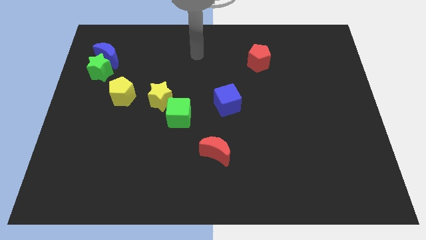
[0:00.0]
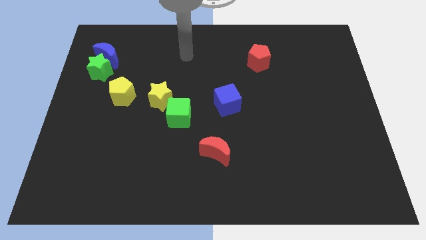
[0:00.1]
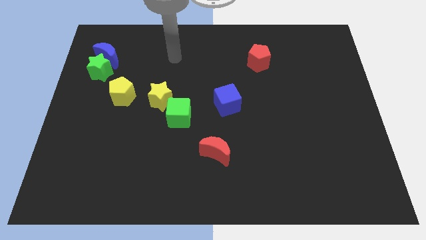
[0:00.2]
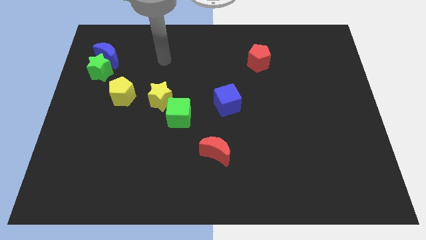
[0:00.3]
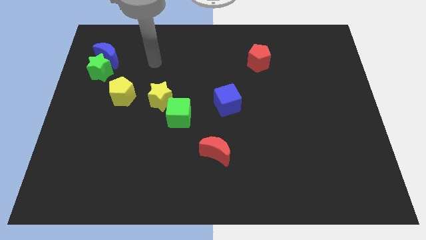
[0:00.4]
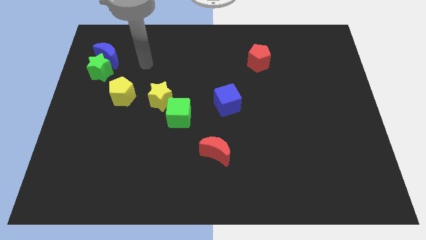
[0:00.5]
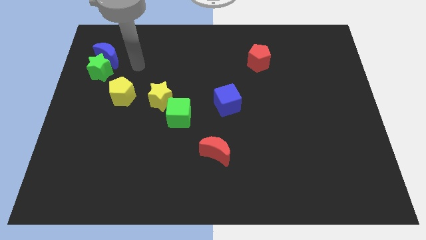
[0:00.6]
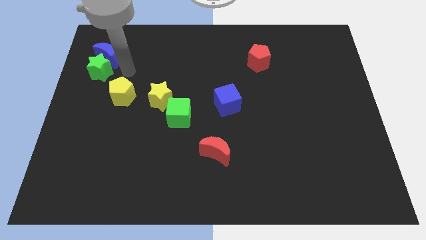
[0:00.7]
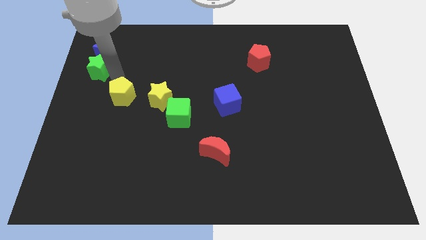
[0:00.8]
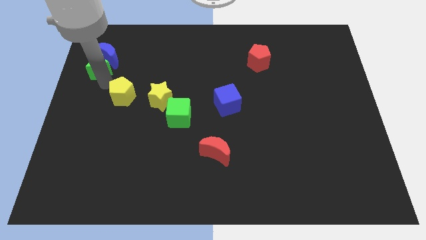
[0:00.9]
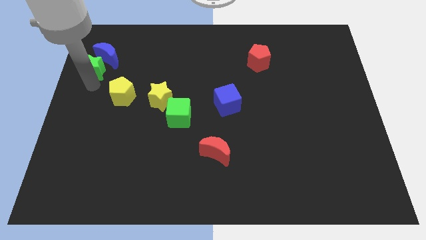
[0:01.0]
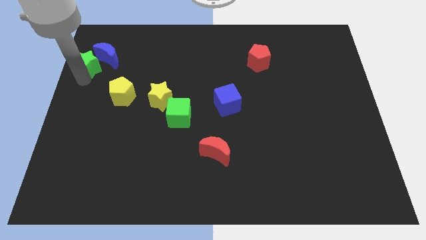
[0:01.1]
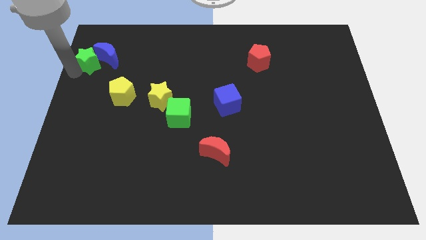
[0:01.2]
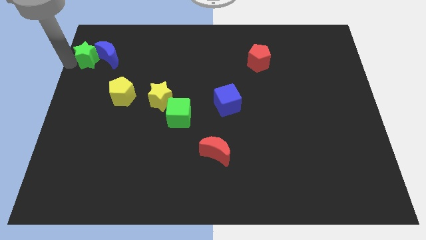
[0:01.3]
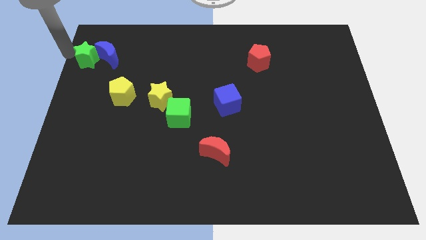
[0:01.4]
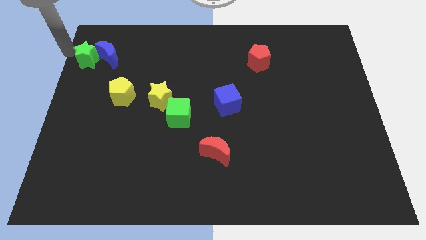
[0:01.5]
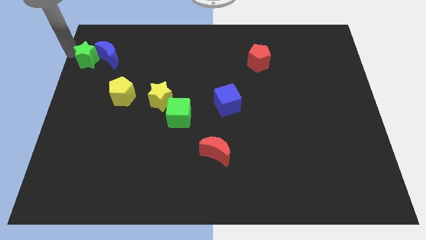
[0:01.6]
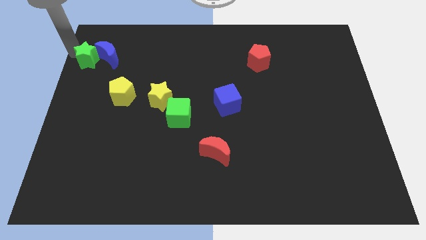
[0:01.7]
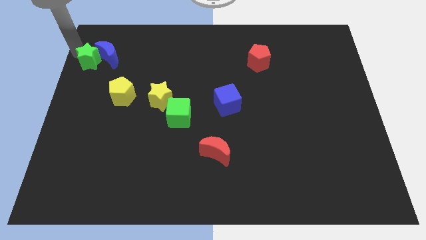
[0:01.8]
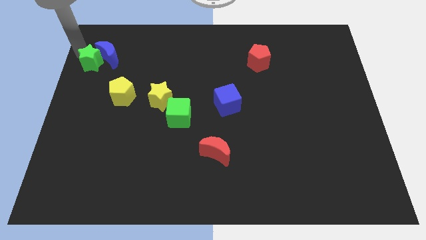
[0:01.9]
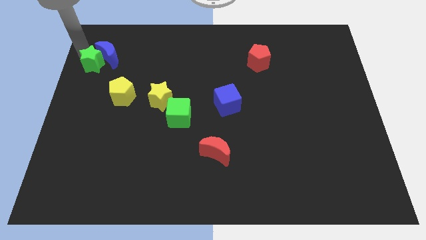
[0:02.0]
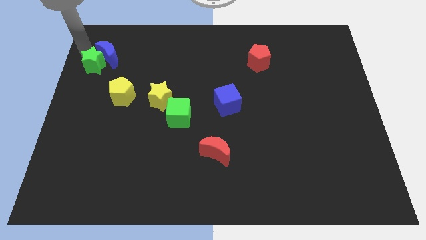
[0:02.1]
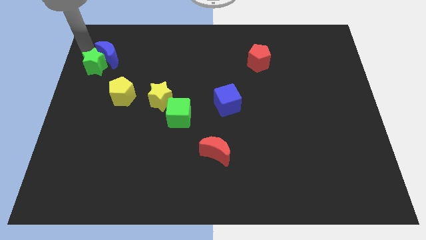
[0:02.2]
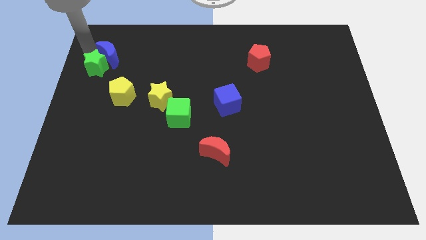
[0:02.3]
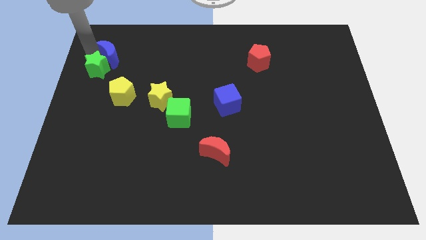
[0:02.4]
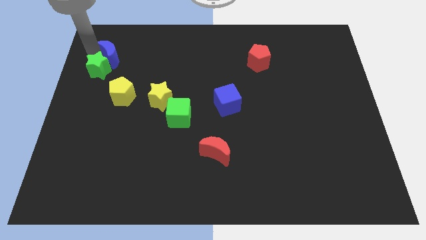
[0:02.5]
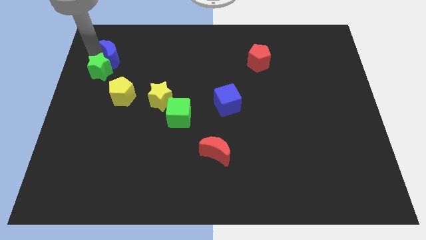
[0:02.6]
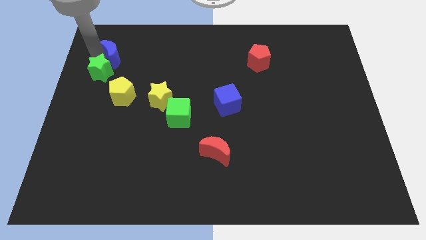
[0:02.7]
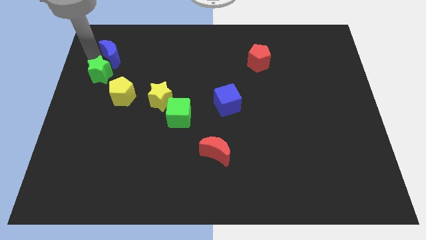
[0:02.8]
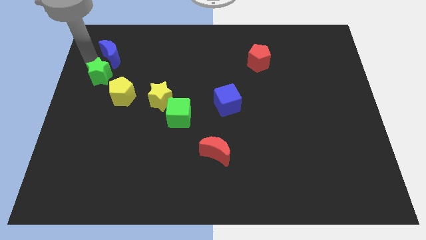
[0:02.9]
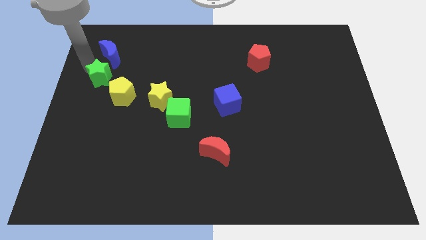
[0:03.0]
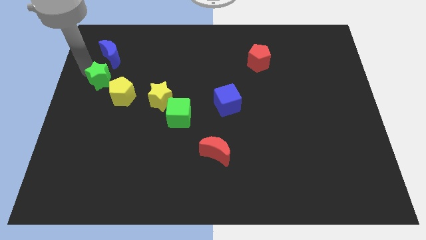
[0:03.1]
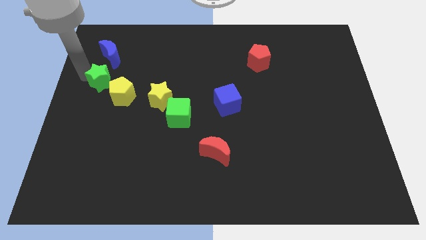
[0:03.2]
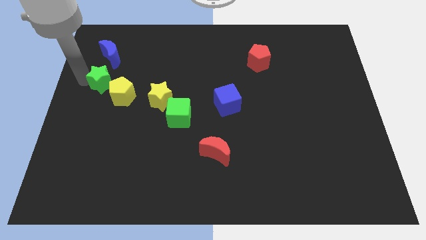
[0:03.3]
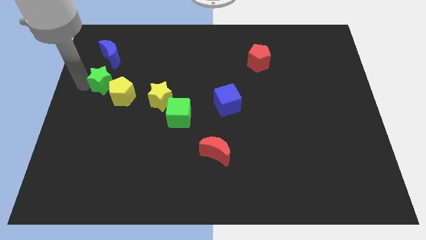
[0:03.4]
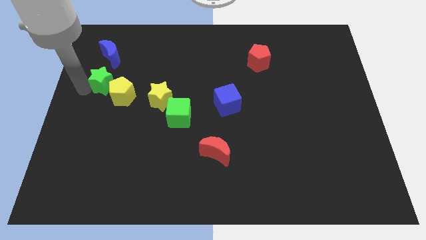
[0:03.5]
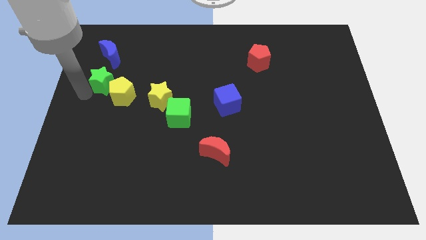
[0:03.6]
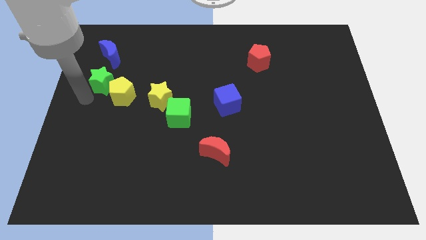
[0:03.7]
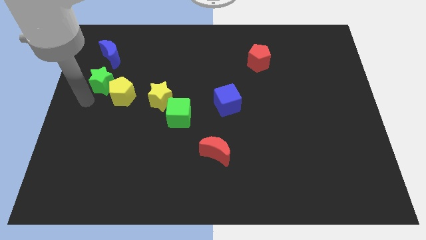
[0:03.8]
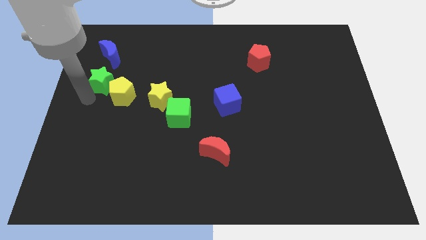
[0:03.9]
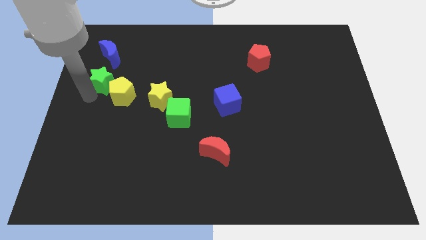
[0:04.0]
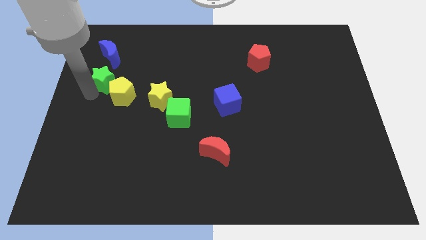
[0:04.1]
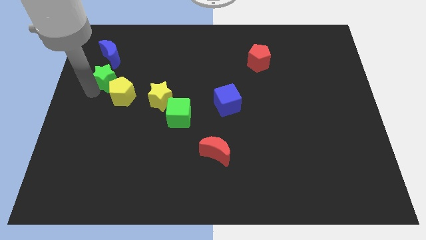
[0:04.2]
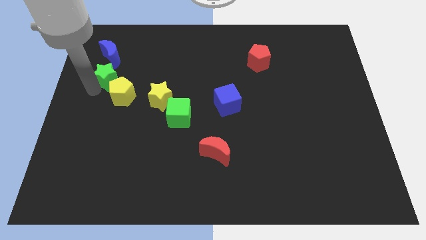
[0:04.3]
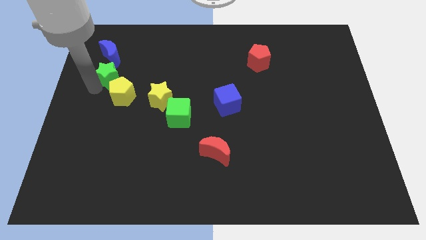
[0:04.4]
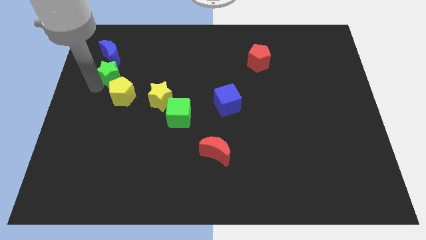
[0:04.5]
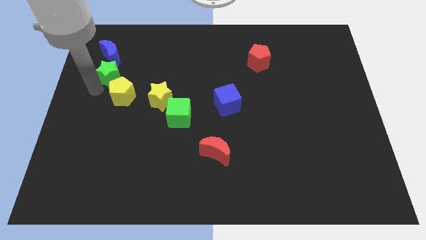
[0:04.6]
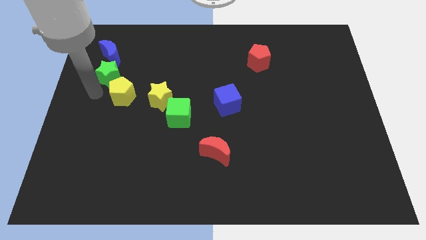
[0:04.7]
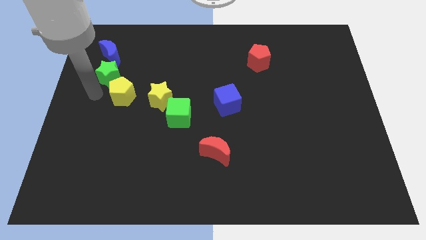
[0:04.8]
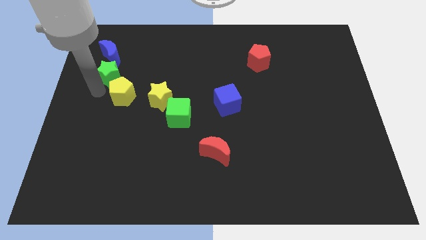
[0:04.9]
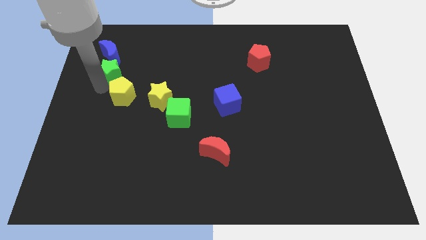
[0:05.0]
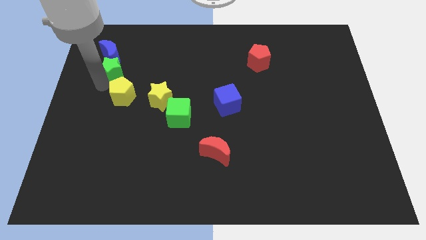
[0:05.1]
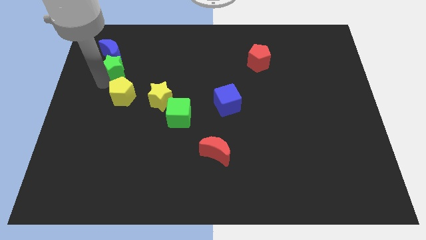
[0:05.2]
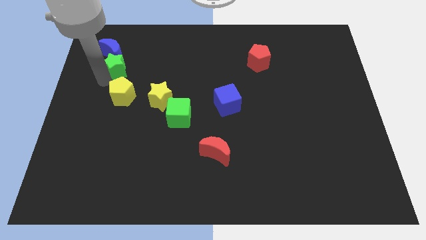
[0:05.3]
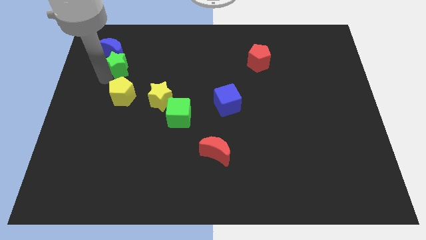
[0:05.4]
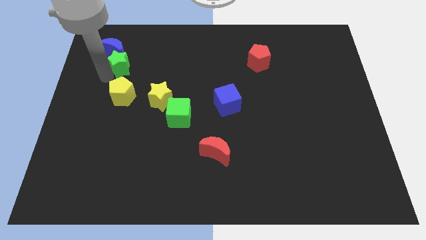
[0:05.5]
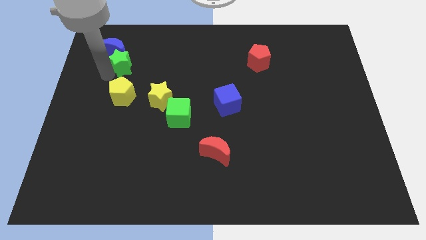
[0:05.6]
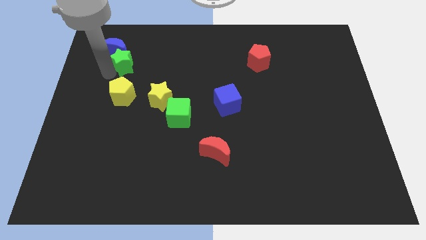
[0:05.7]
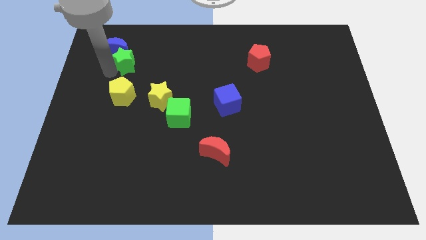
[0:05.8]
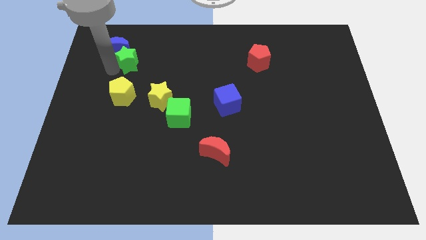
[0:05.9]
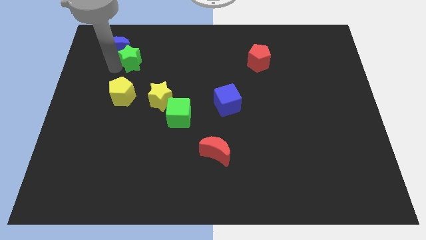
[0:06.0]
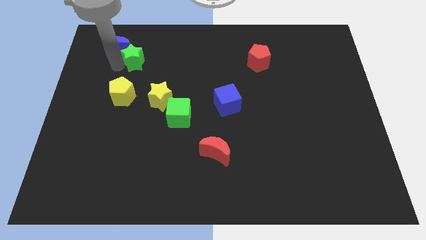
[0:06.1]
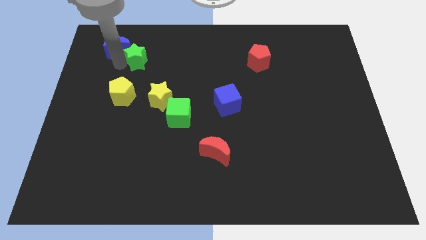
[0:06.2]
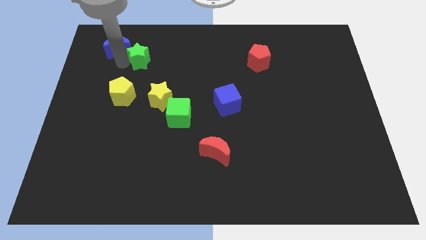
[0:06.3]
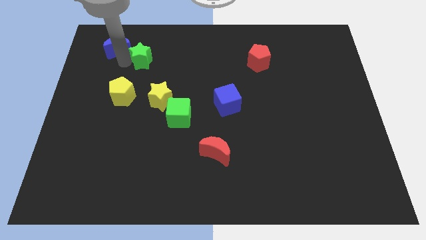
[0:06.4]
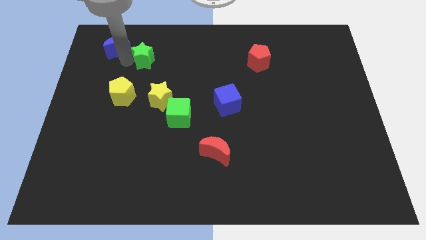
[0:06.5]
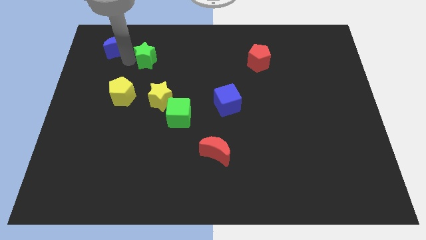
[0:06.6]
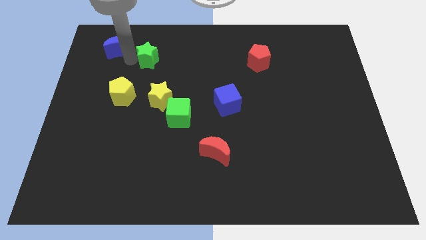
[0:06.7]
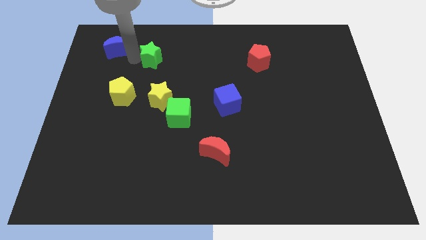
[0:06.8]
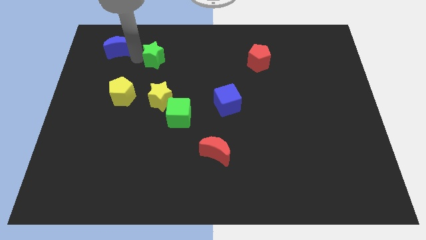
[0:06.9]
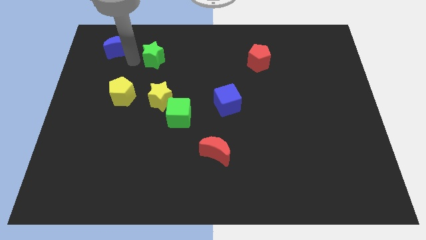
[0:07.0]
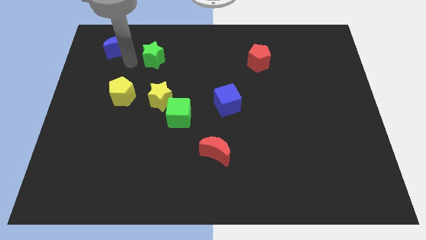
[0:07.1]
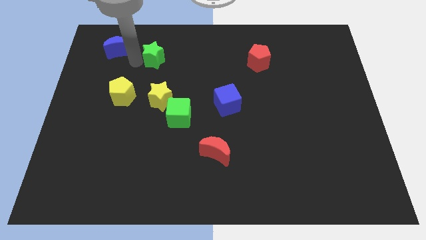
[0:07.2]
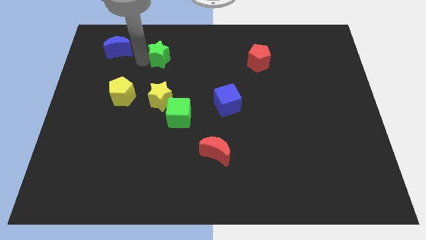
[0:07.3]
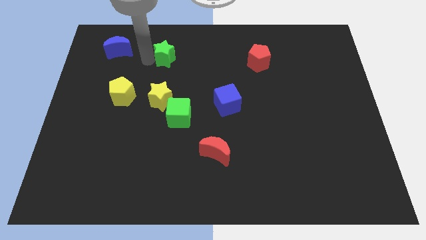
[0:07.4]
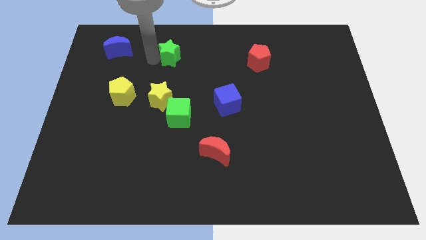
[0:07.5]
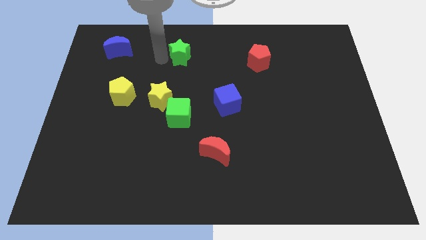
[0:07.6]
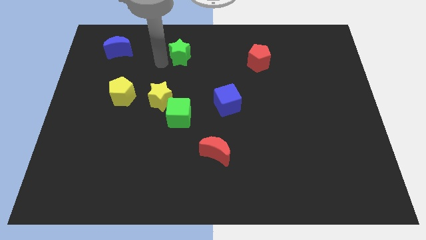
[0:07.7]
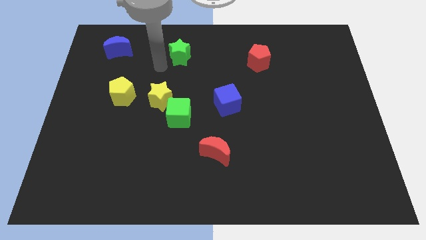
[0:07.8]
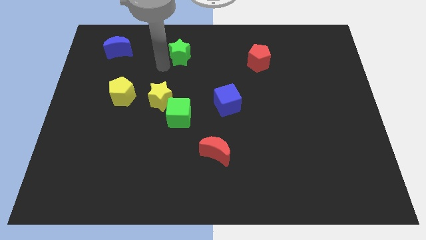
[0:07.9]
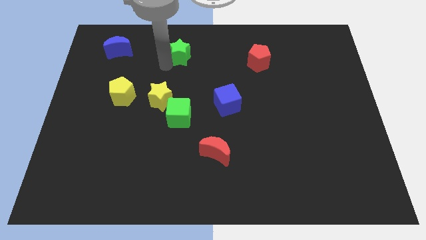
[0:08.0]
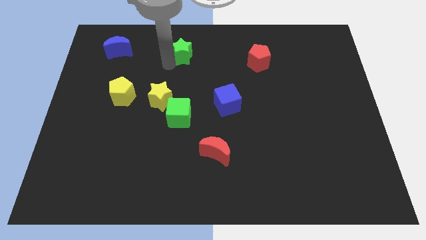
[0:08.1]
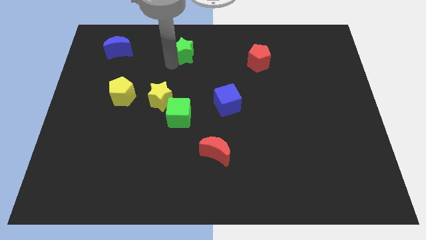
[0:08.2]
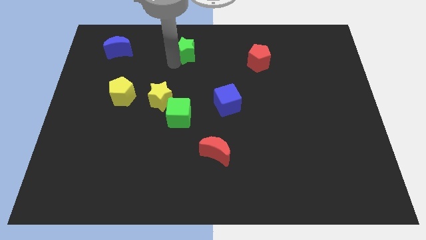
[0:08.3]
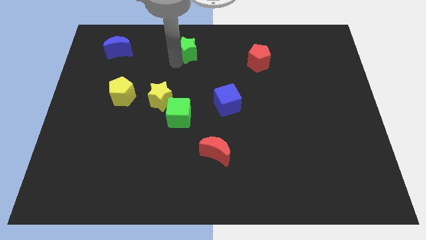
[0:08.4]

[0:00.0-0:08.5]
slide the green star to the top
